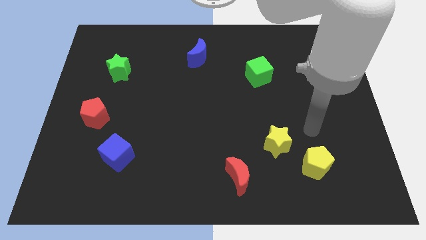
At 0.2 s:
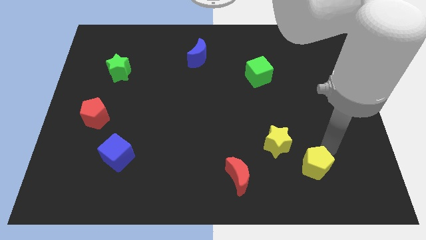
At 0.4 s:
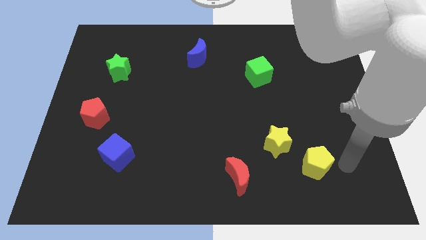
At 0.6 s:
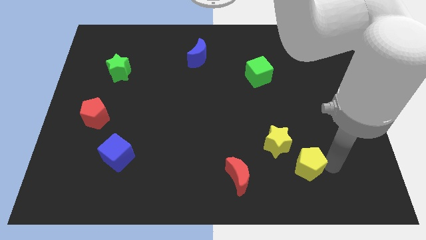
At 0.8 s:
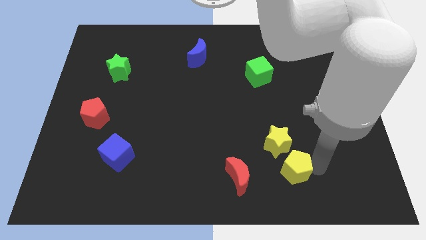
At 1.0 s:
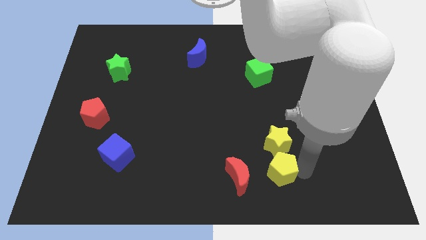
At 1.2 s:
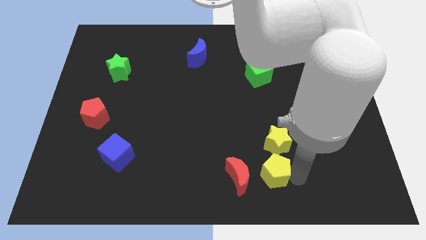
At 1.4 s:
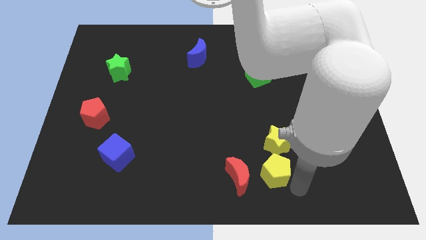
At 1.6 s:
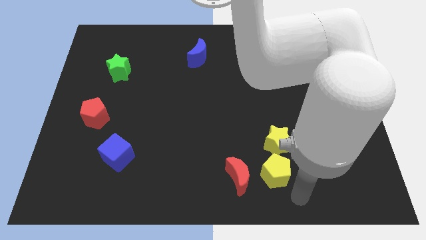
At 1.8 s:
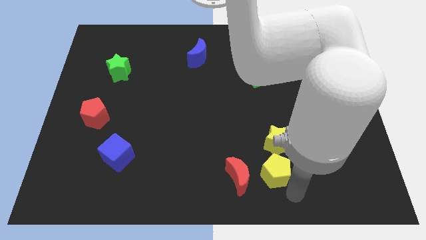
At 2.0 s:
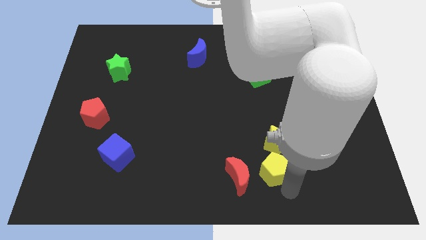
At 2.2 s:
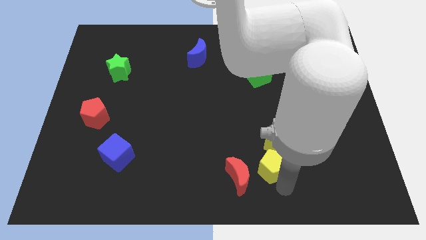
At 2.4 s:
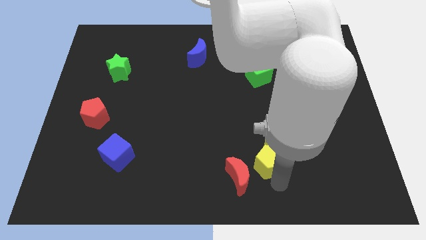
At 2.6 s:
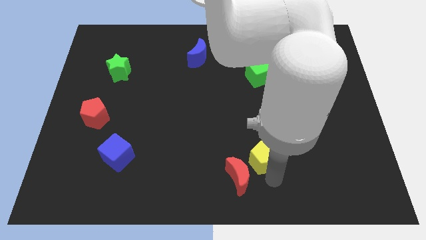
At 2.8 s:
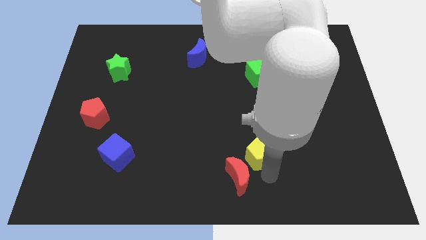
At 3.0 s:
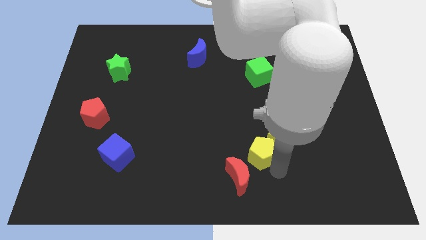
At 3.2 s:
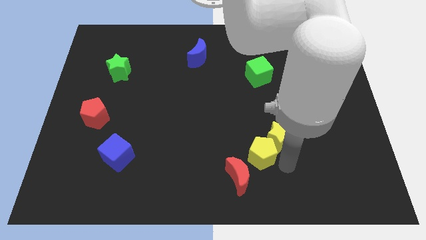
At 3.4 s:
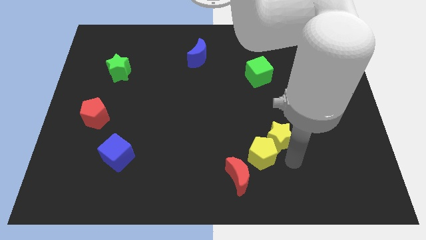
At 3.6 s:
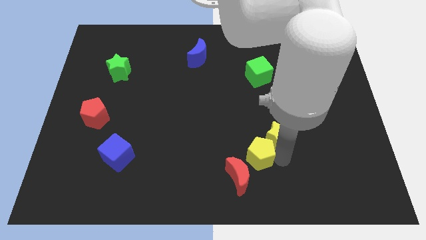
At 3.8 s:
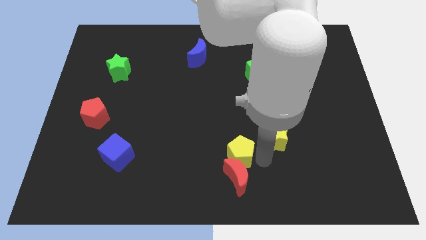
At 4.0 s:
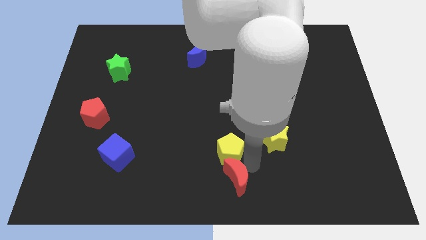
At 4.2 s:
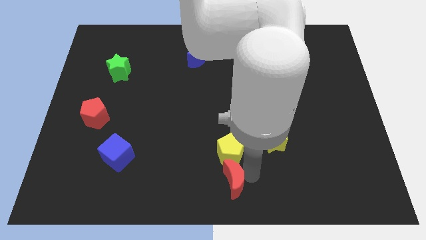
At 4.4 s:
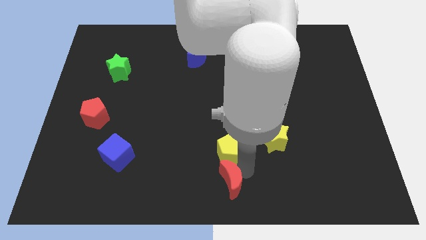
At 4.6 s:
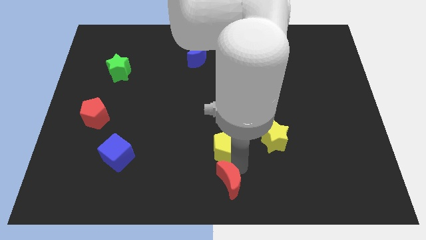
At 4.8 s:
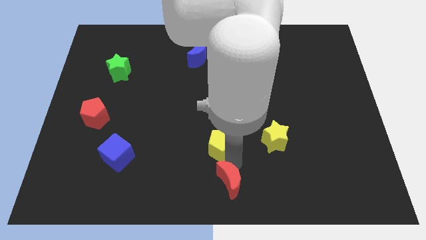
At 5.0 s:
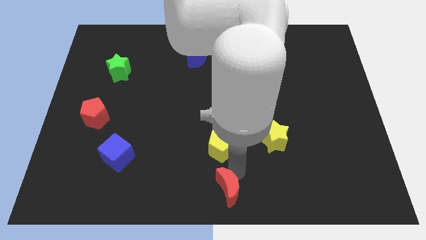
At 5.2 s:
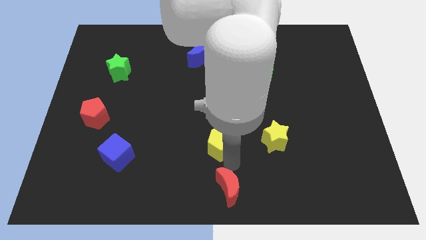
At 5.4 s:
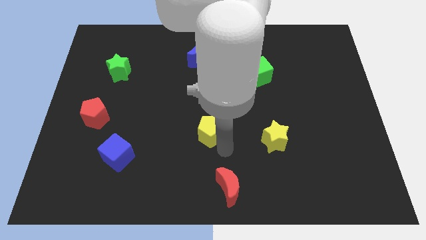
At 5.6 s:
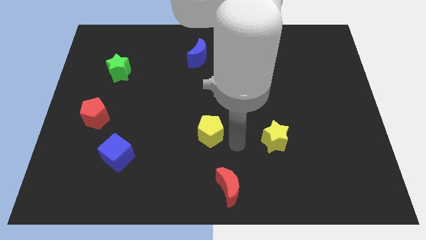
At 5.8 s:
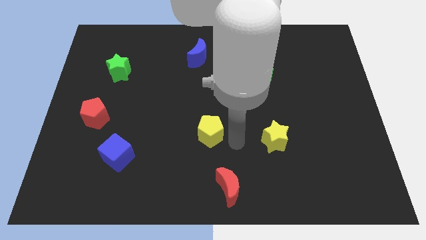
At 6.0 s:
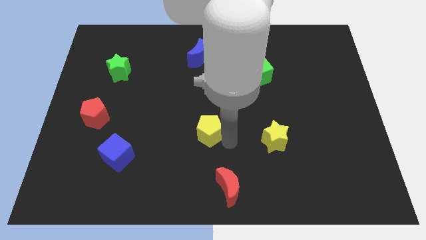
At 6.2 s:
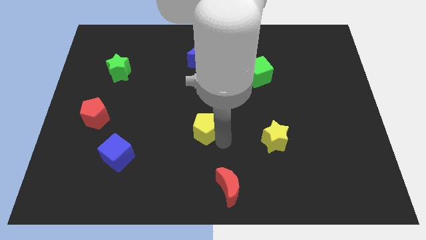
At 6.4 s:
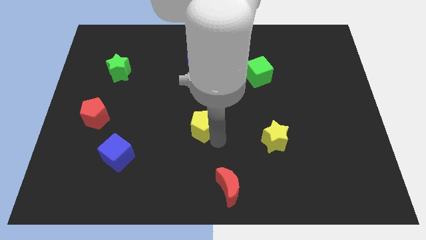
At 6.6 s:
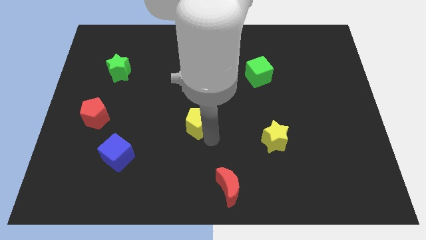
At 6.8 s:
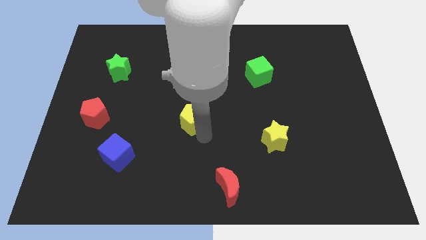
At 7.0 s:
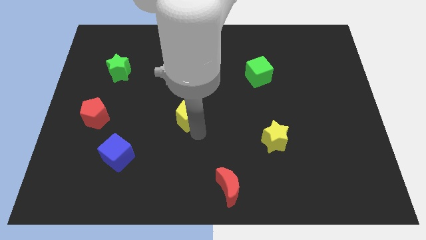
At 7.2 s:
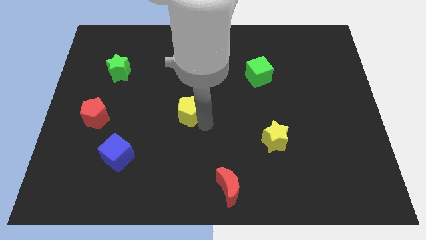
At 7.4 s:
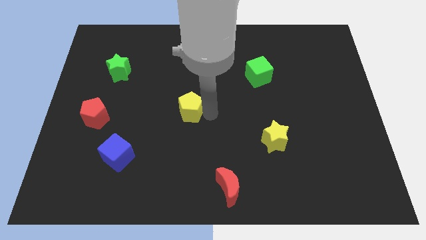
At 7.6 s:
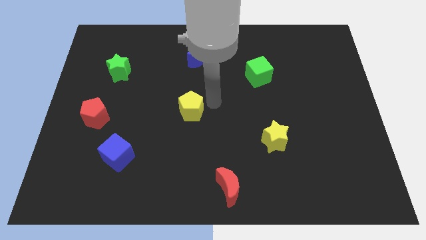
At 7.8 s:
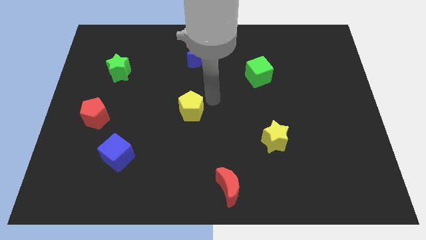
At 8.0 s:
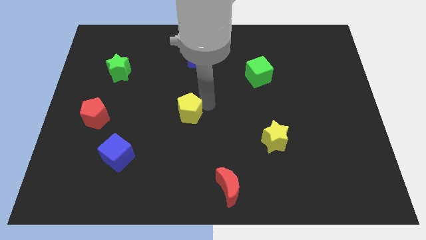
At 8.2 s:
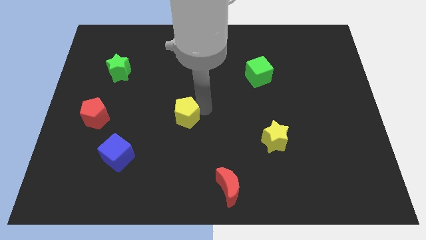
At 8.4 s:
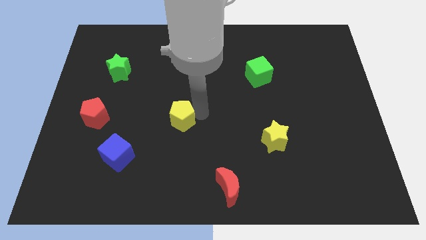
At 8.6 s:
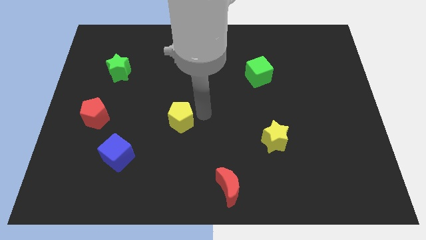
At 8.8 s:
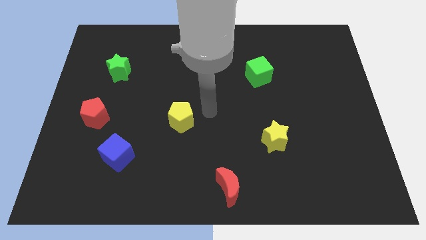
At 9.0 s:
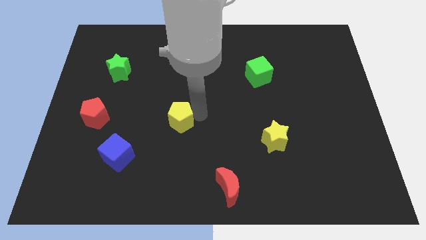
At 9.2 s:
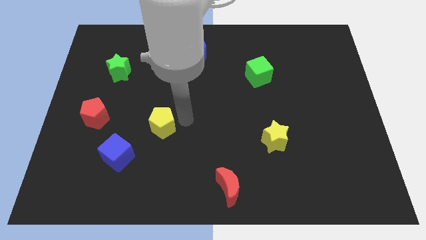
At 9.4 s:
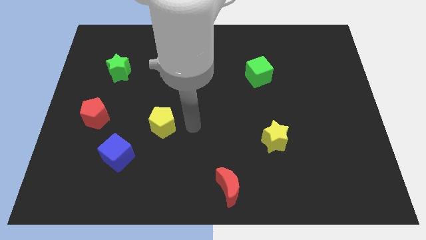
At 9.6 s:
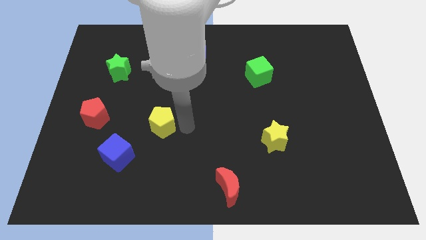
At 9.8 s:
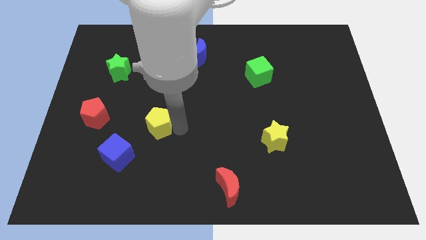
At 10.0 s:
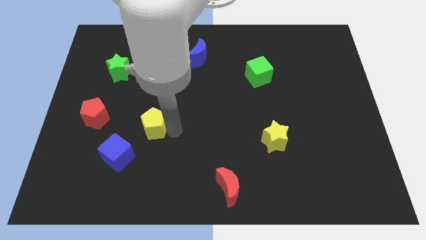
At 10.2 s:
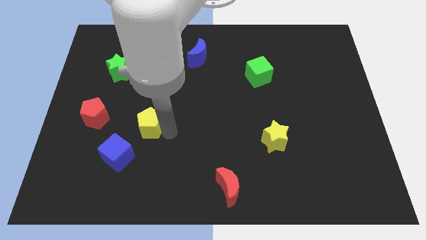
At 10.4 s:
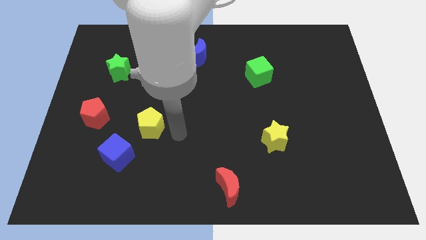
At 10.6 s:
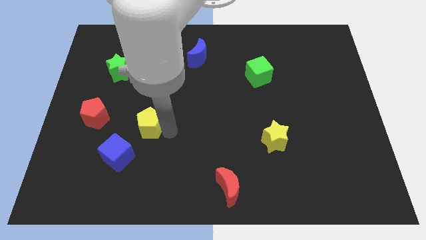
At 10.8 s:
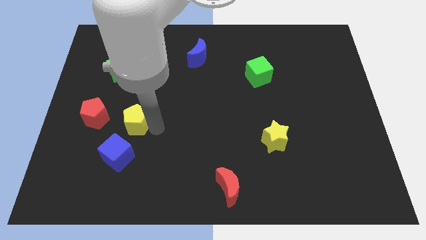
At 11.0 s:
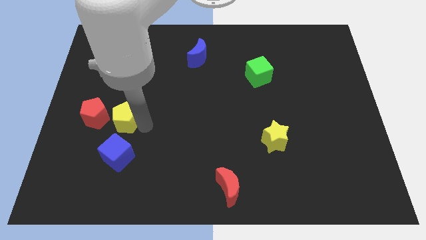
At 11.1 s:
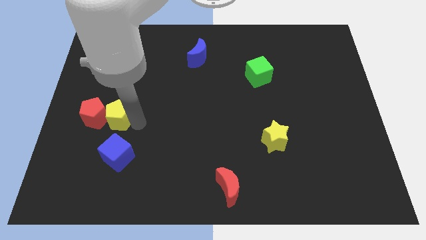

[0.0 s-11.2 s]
push the yellow pentagon next to the red pentagon

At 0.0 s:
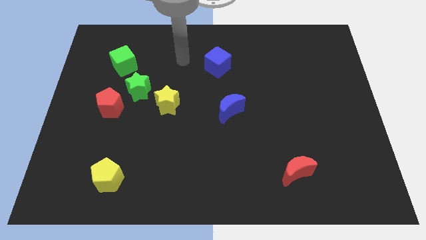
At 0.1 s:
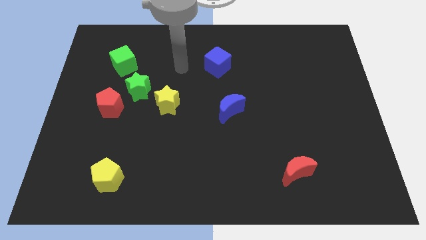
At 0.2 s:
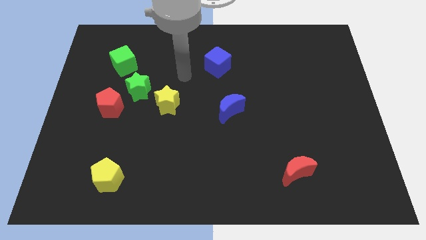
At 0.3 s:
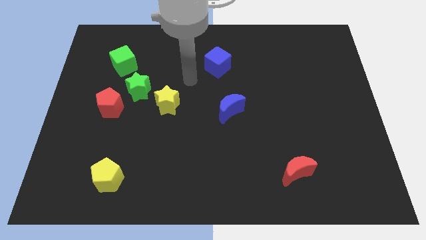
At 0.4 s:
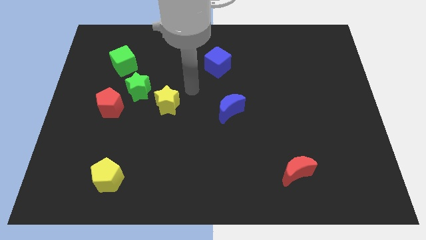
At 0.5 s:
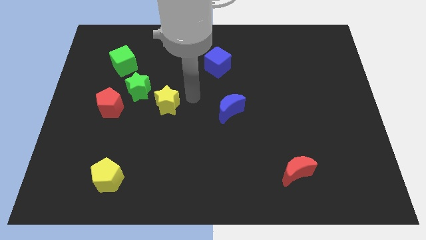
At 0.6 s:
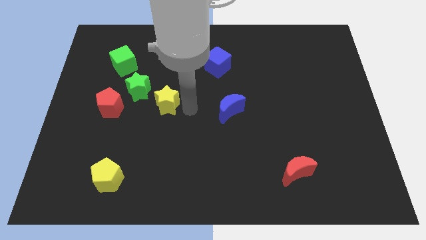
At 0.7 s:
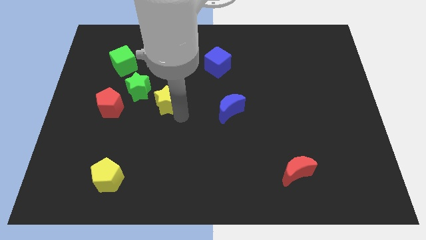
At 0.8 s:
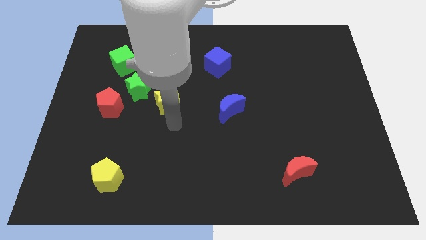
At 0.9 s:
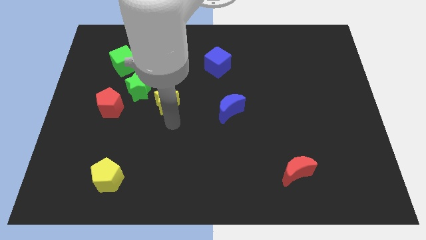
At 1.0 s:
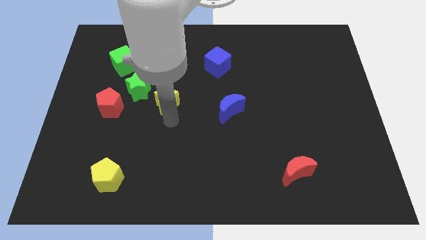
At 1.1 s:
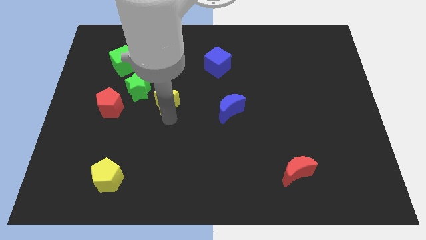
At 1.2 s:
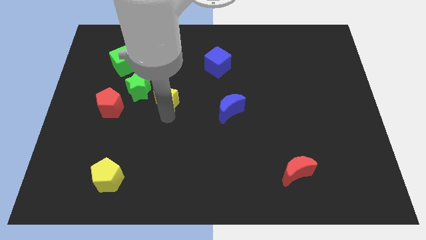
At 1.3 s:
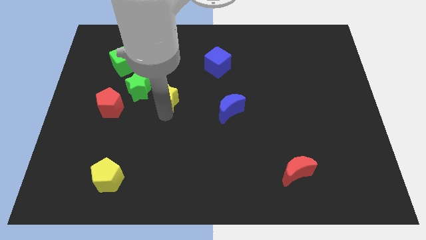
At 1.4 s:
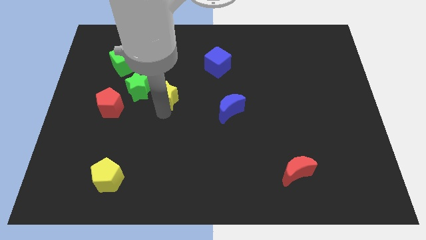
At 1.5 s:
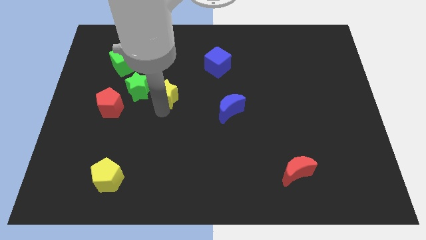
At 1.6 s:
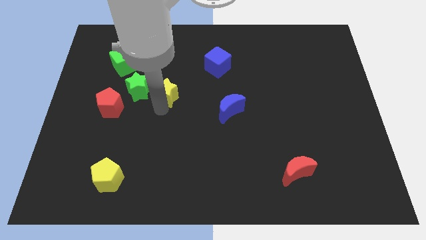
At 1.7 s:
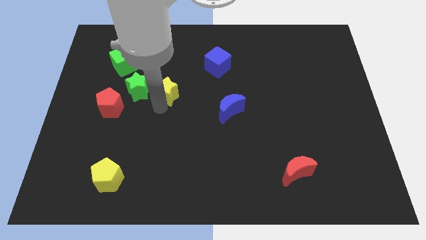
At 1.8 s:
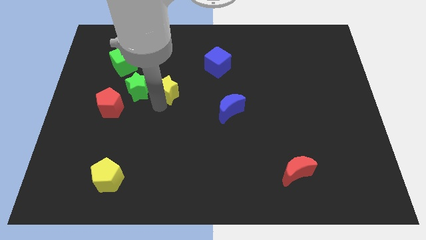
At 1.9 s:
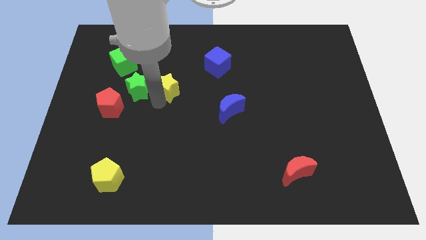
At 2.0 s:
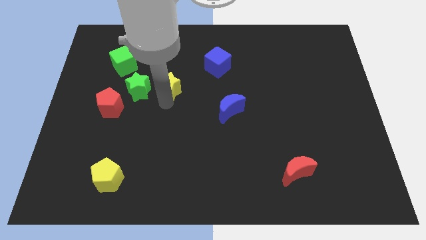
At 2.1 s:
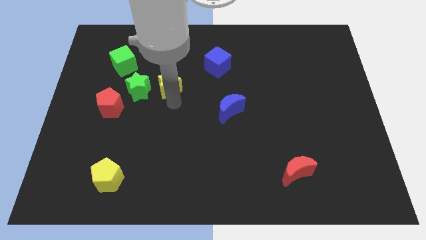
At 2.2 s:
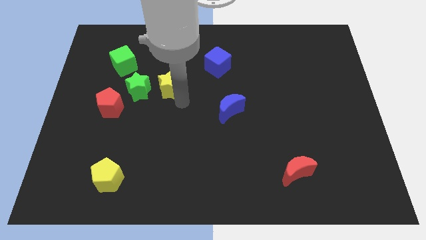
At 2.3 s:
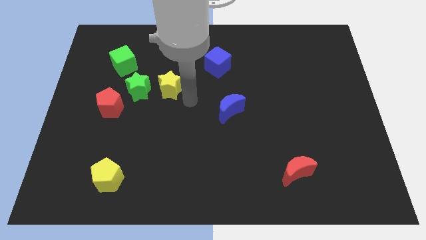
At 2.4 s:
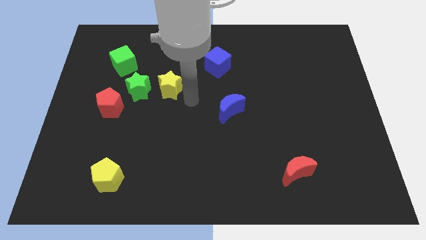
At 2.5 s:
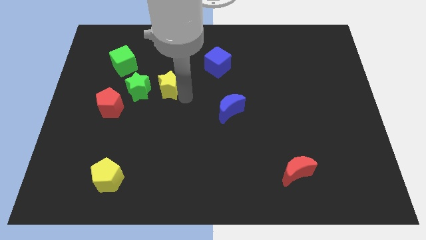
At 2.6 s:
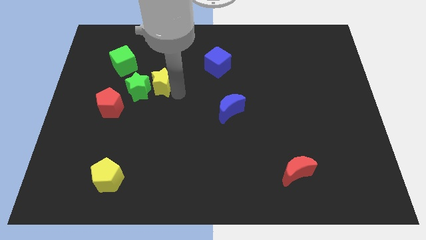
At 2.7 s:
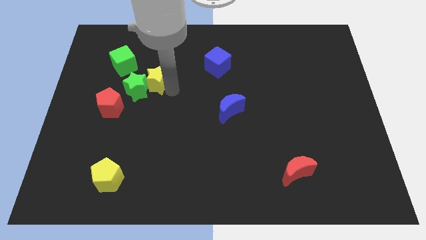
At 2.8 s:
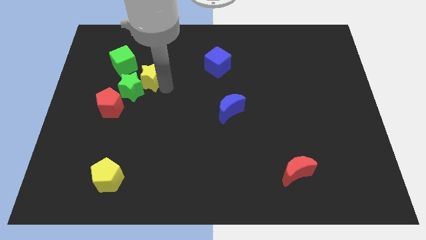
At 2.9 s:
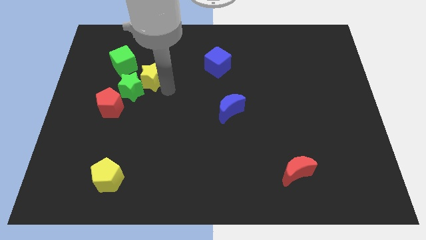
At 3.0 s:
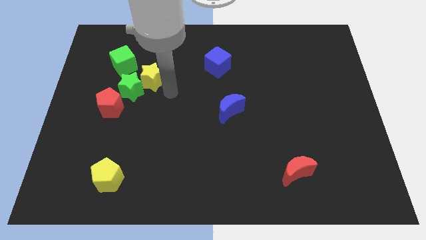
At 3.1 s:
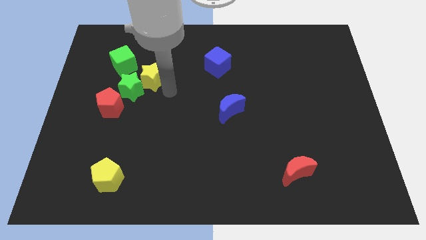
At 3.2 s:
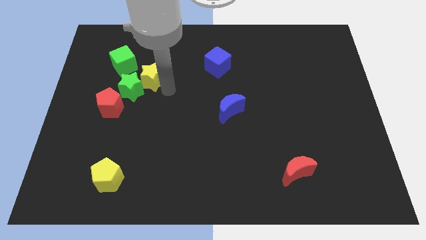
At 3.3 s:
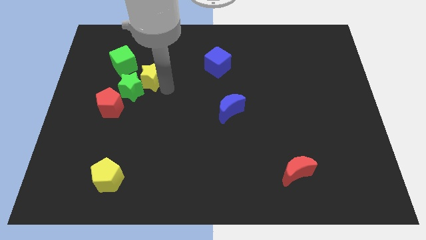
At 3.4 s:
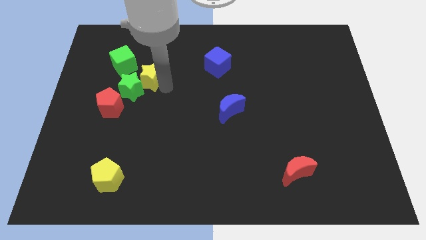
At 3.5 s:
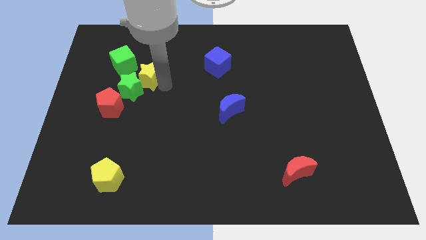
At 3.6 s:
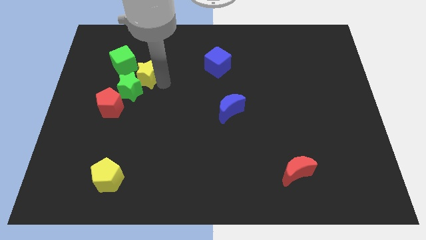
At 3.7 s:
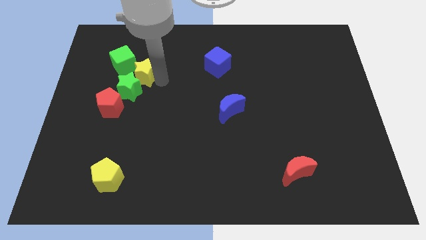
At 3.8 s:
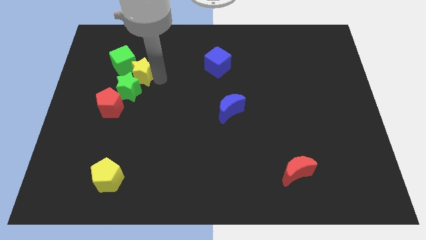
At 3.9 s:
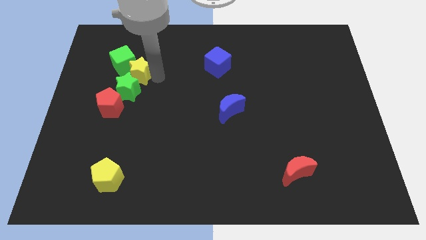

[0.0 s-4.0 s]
slide the yellow star to the green cube
